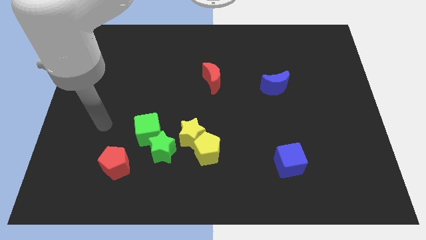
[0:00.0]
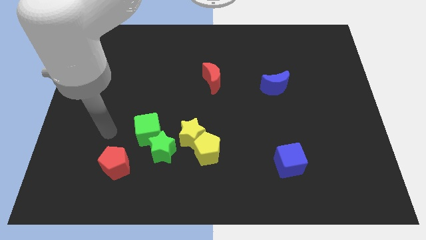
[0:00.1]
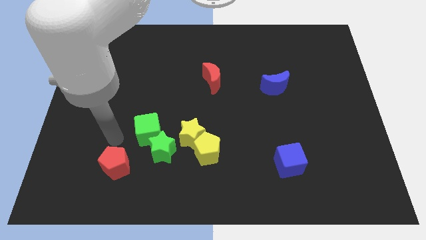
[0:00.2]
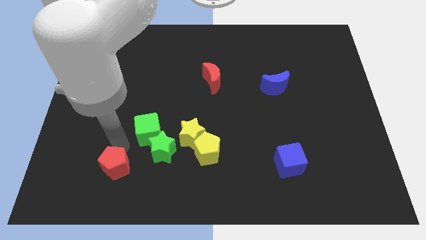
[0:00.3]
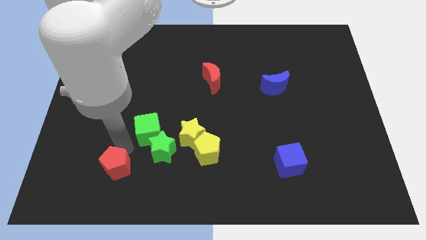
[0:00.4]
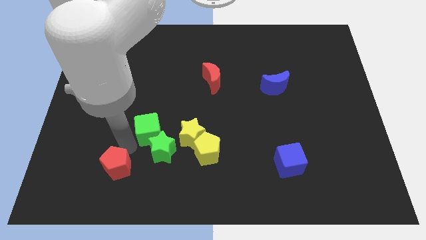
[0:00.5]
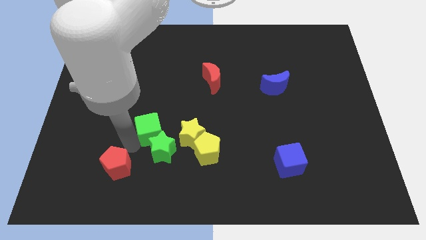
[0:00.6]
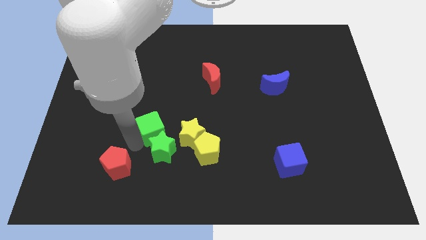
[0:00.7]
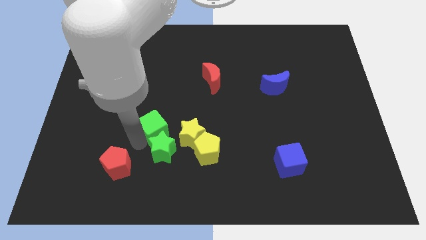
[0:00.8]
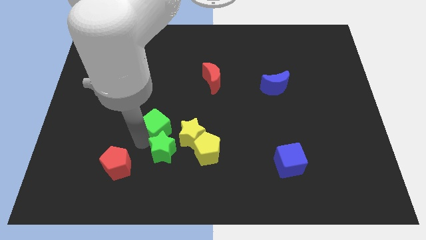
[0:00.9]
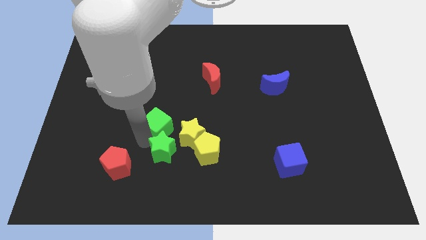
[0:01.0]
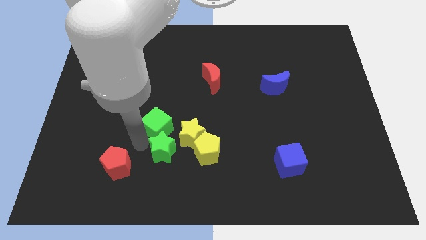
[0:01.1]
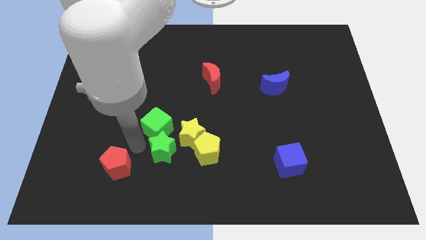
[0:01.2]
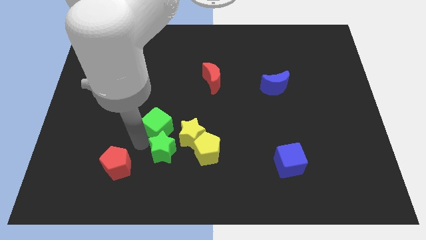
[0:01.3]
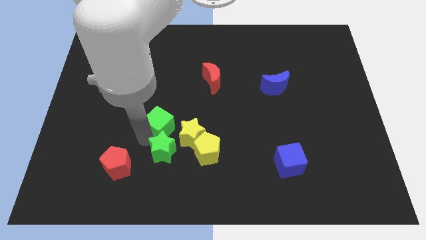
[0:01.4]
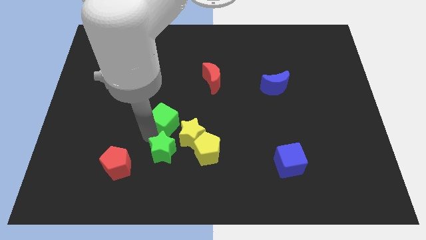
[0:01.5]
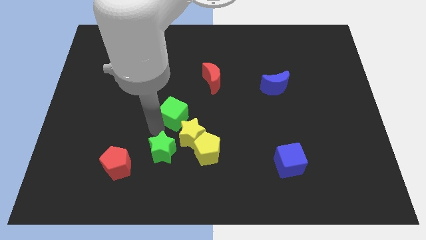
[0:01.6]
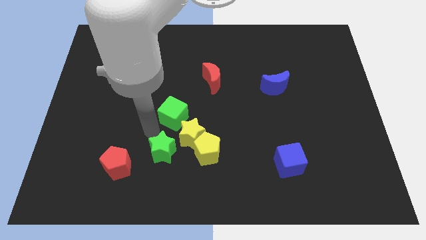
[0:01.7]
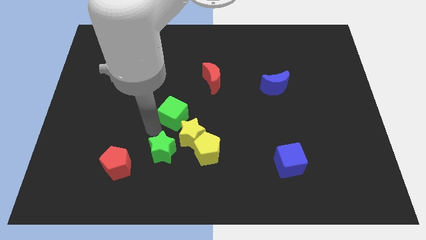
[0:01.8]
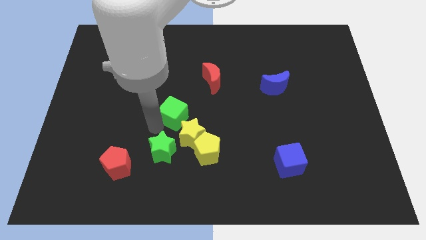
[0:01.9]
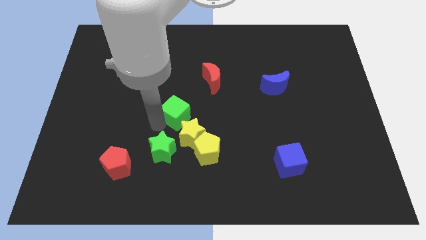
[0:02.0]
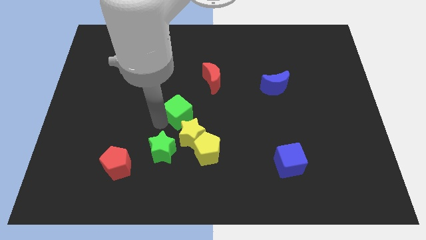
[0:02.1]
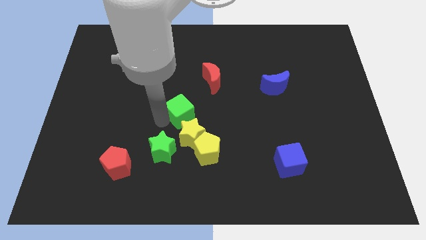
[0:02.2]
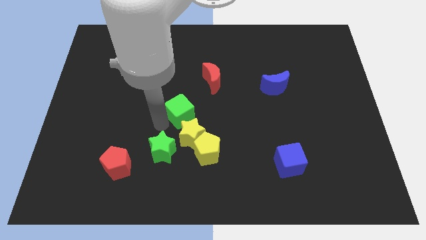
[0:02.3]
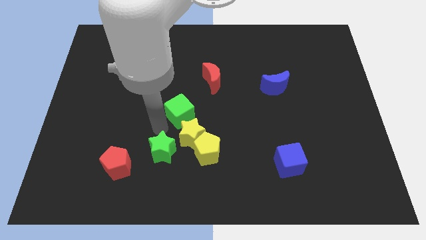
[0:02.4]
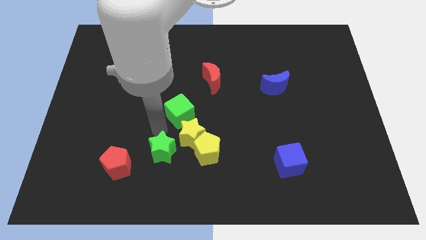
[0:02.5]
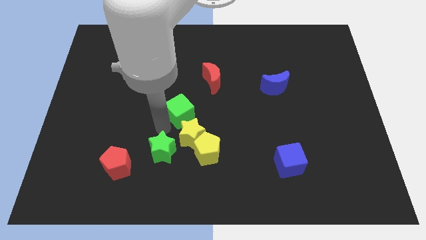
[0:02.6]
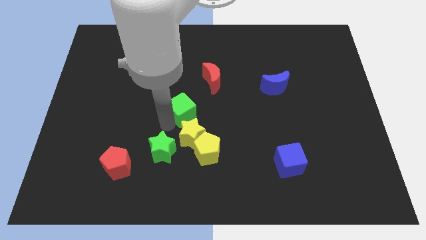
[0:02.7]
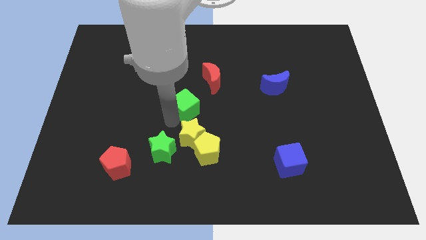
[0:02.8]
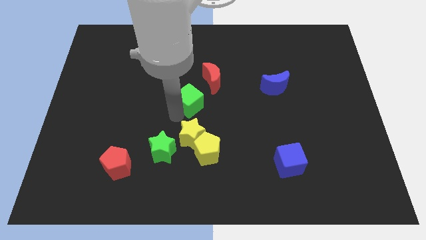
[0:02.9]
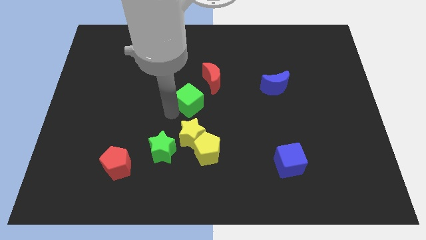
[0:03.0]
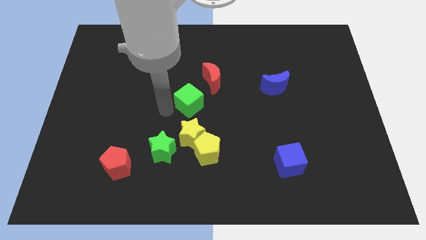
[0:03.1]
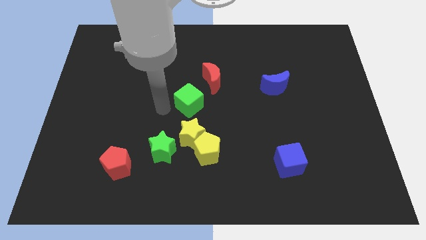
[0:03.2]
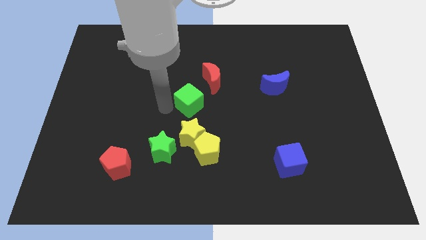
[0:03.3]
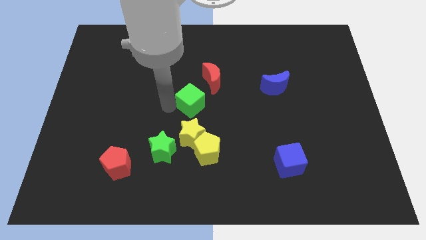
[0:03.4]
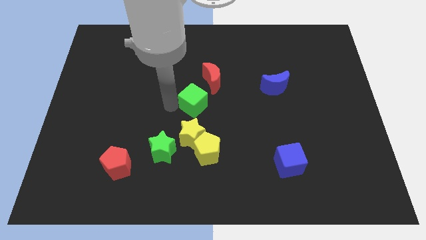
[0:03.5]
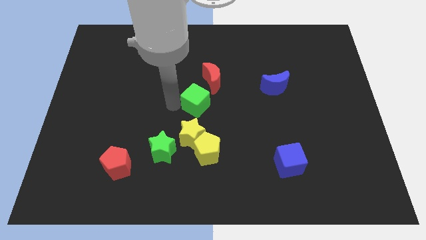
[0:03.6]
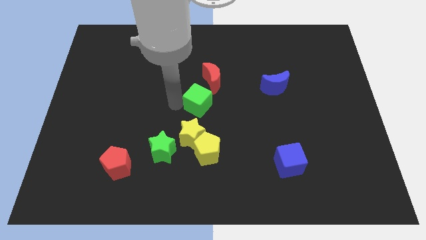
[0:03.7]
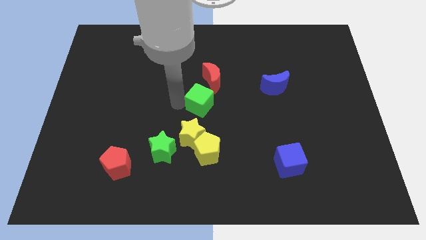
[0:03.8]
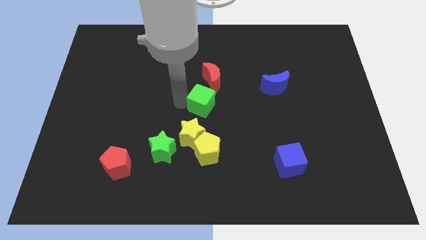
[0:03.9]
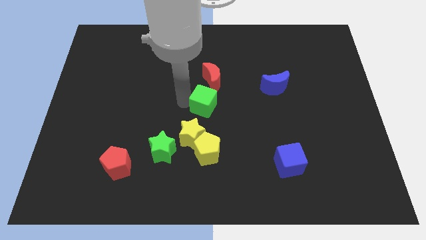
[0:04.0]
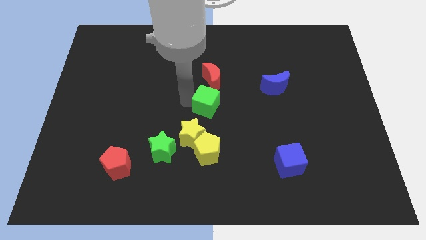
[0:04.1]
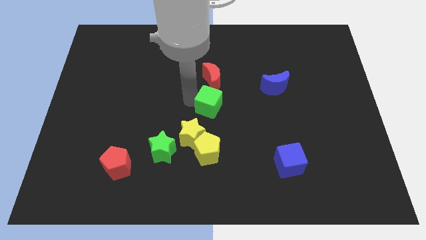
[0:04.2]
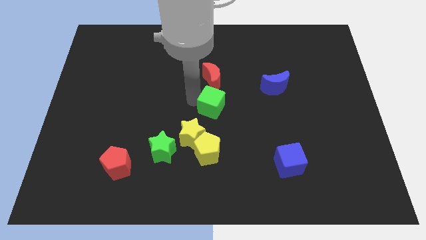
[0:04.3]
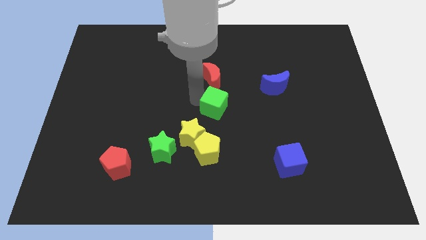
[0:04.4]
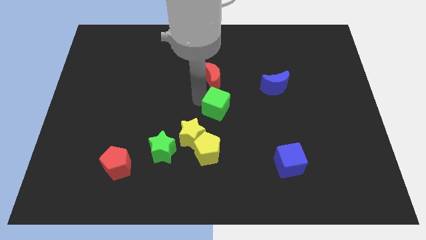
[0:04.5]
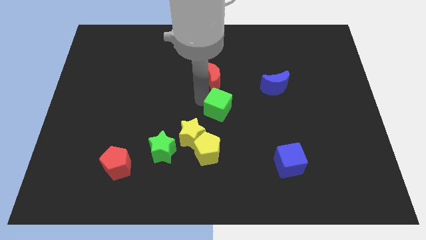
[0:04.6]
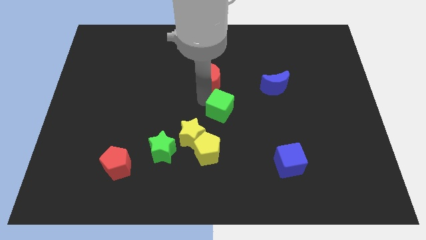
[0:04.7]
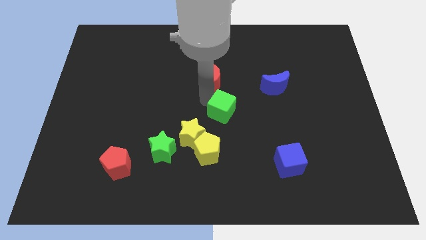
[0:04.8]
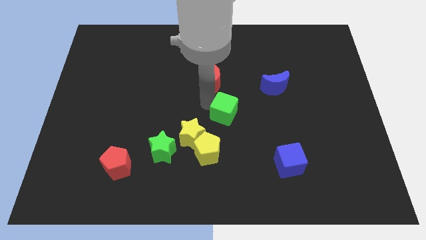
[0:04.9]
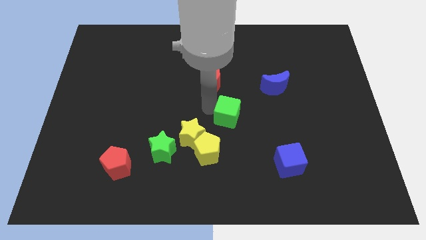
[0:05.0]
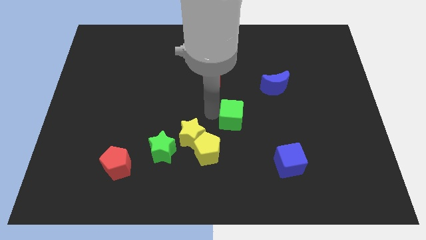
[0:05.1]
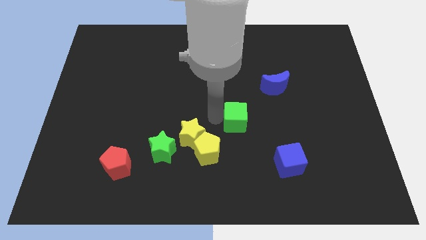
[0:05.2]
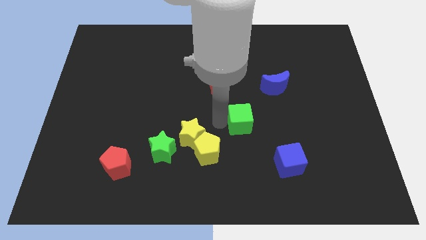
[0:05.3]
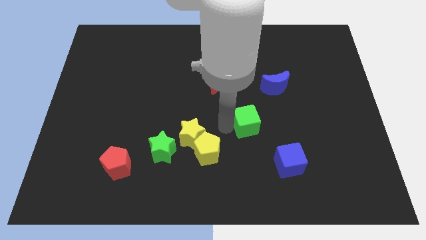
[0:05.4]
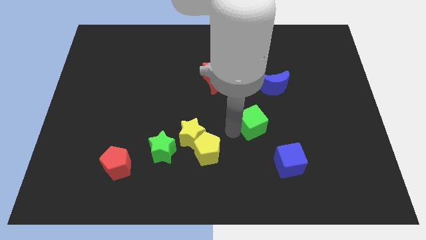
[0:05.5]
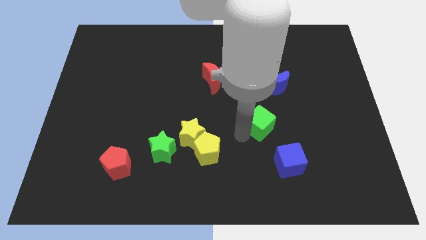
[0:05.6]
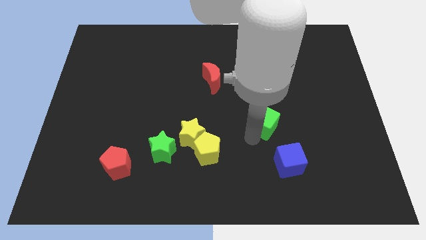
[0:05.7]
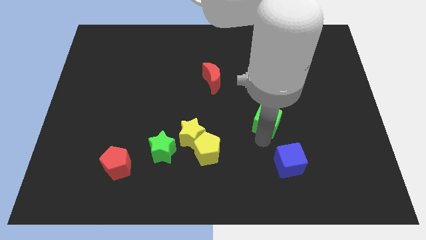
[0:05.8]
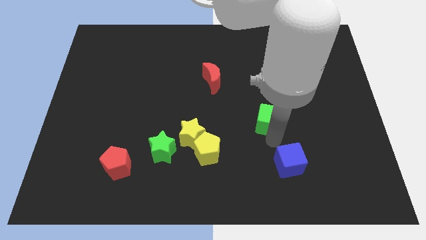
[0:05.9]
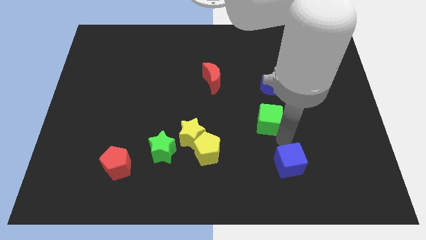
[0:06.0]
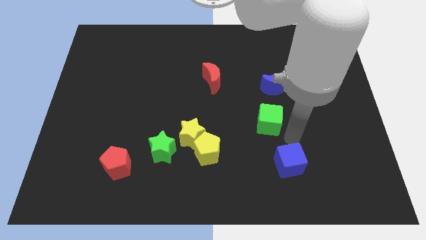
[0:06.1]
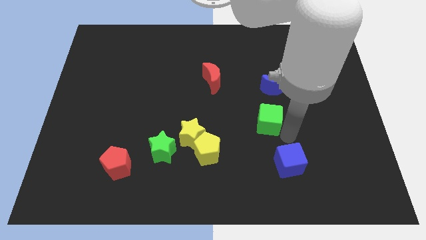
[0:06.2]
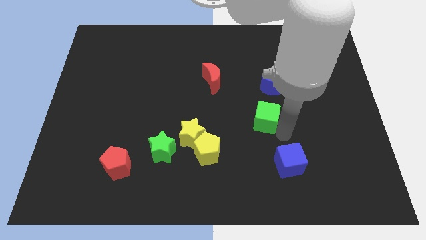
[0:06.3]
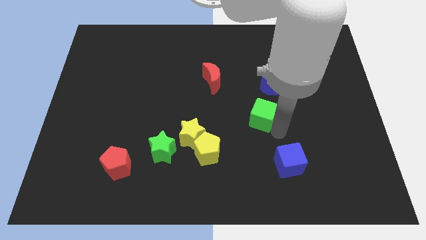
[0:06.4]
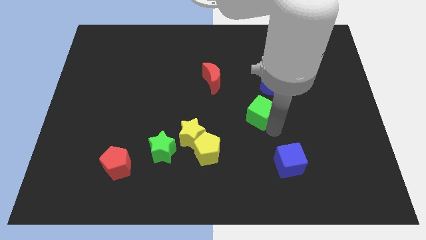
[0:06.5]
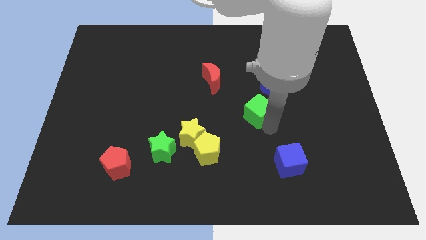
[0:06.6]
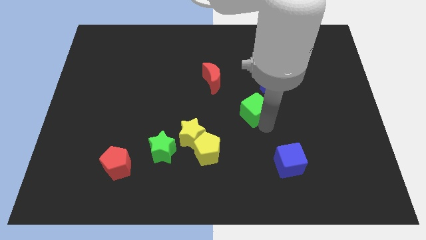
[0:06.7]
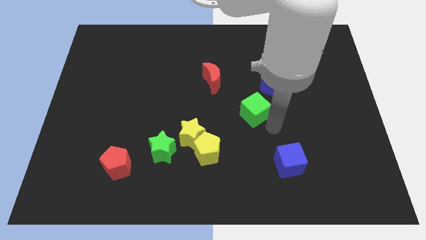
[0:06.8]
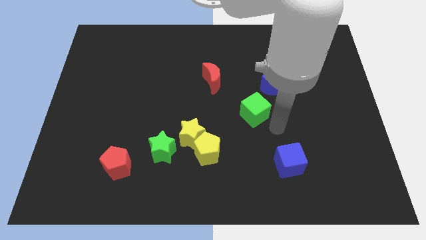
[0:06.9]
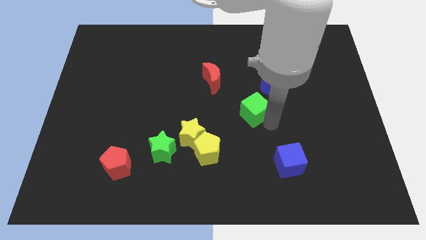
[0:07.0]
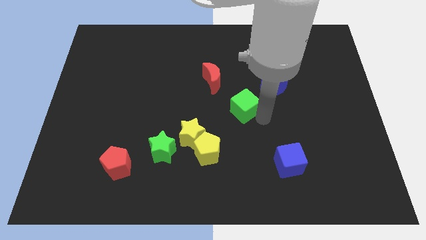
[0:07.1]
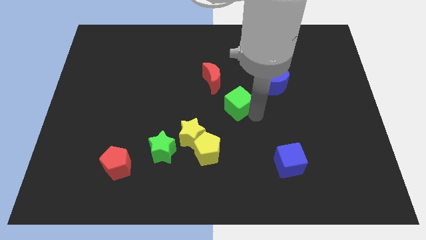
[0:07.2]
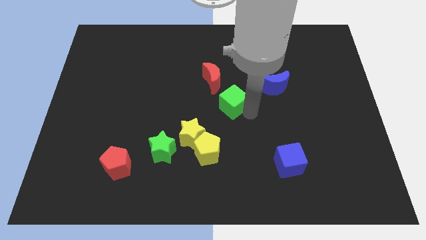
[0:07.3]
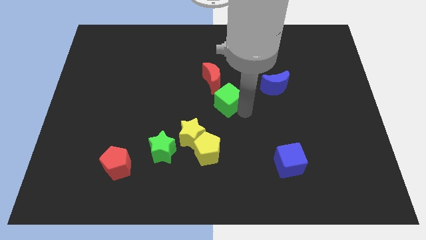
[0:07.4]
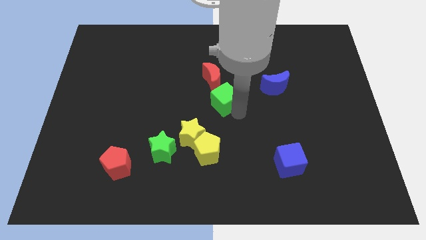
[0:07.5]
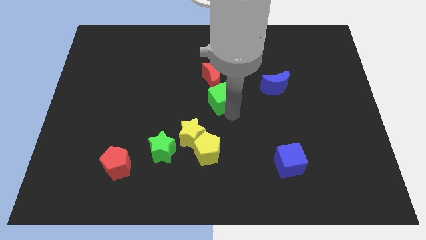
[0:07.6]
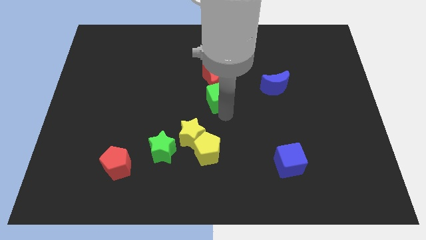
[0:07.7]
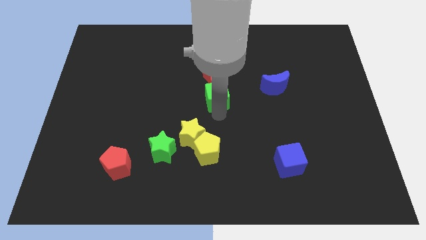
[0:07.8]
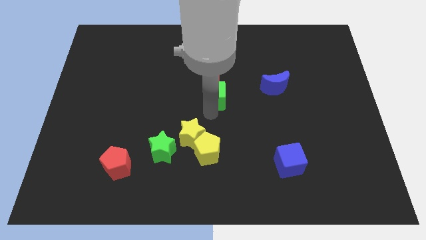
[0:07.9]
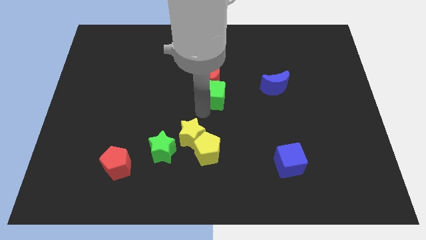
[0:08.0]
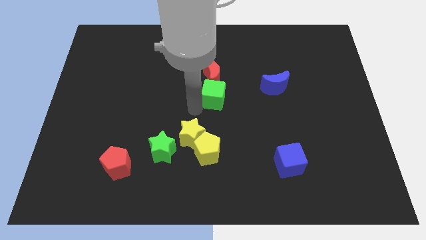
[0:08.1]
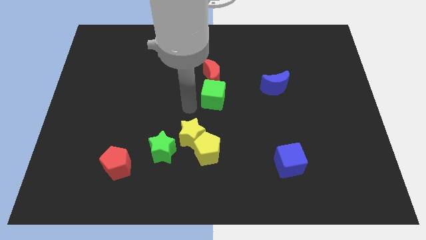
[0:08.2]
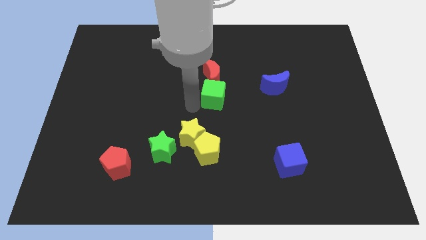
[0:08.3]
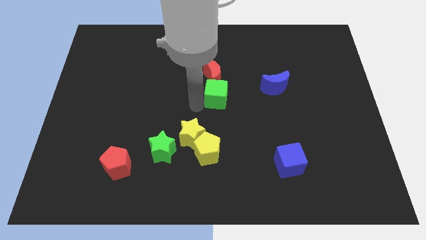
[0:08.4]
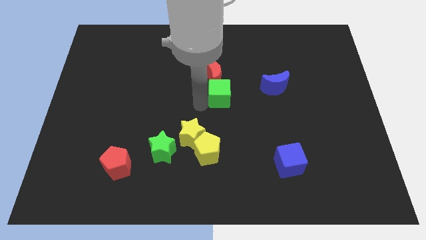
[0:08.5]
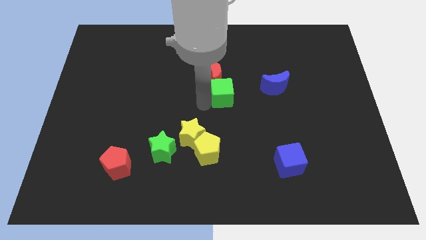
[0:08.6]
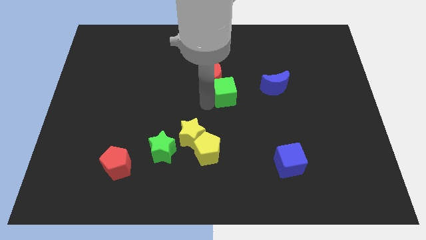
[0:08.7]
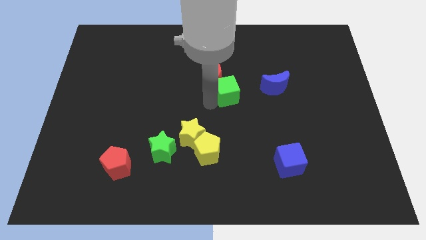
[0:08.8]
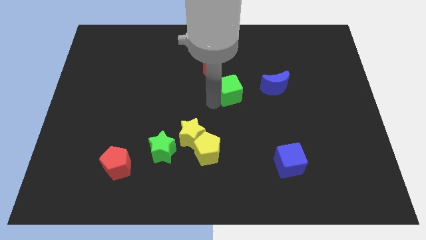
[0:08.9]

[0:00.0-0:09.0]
slide the green cube diagonally upwards and right
